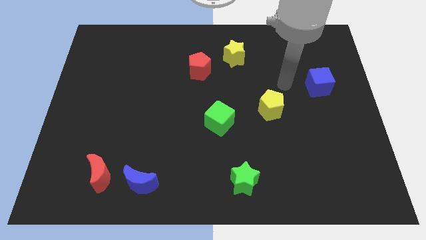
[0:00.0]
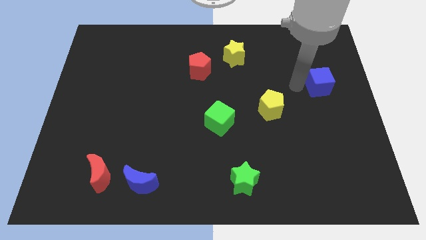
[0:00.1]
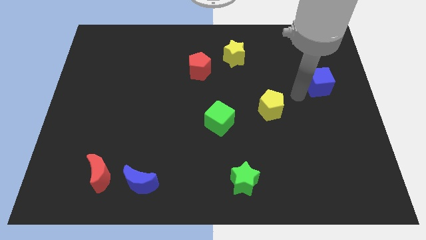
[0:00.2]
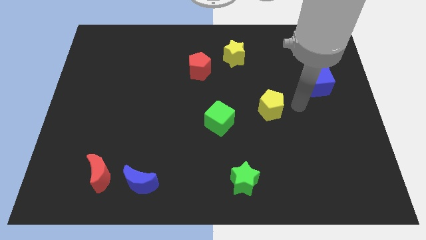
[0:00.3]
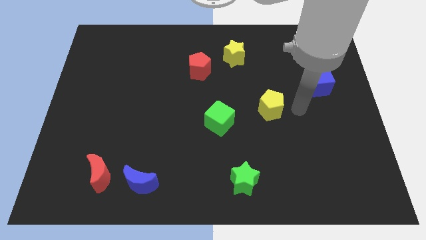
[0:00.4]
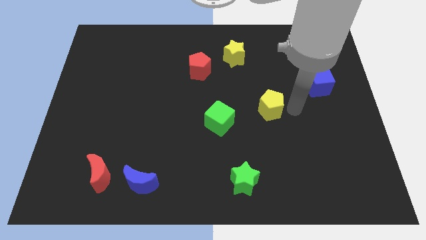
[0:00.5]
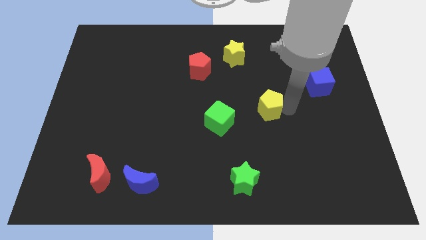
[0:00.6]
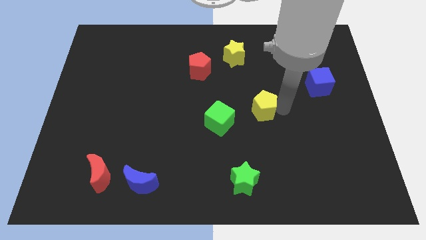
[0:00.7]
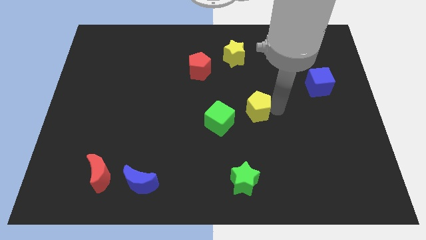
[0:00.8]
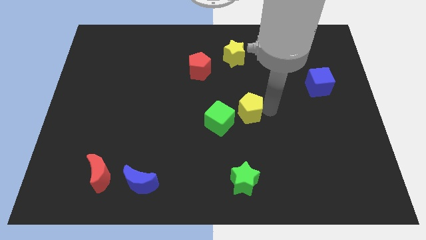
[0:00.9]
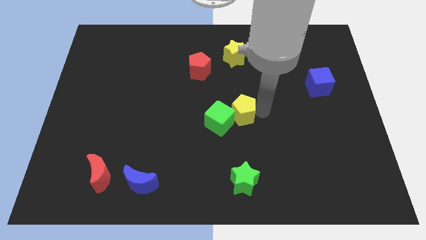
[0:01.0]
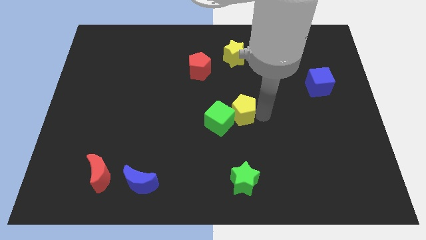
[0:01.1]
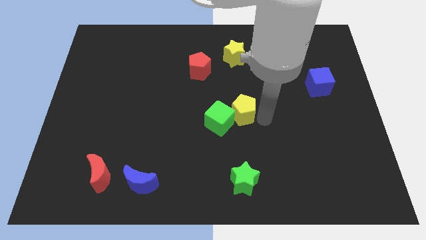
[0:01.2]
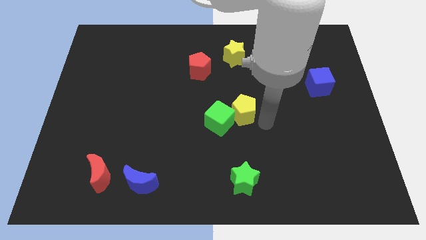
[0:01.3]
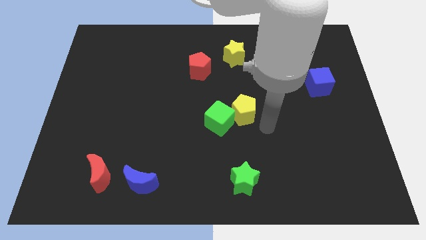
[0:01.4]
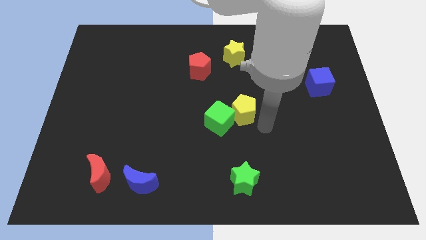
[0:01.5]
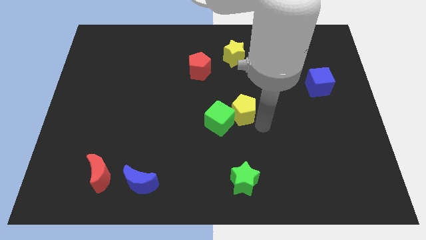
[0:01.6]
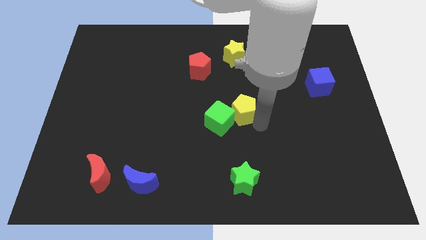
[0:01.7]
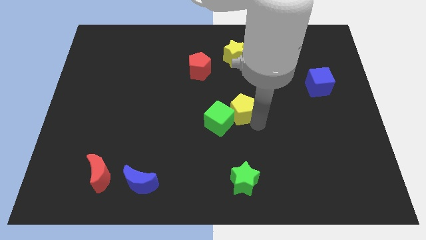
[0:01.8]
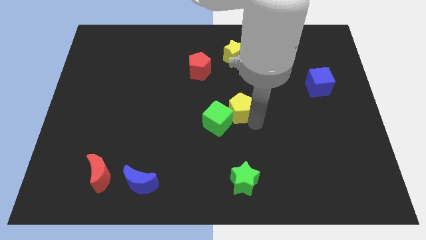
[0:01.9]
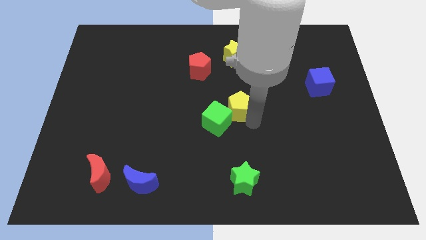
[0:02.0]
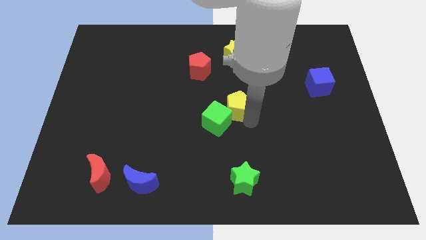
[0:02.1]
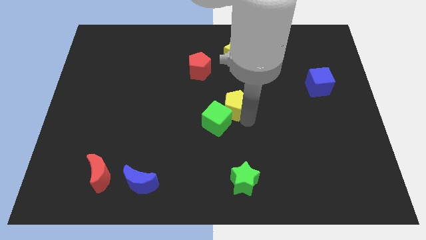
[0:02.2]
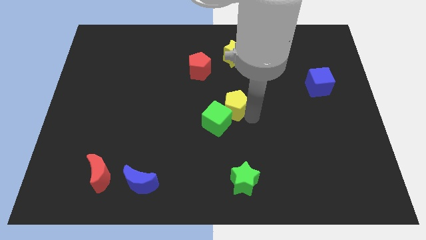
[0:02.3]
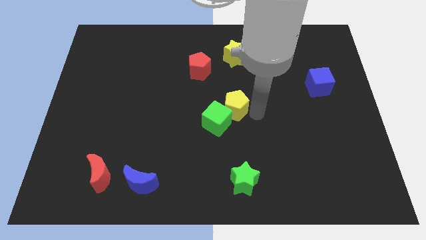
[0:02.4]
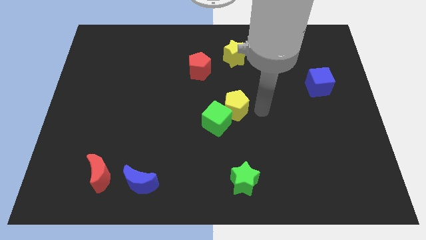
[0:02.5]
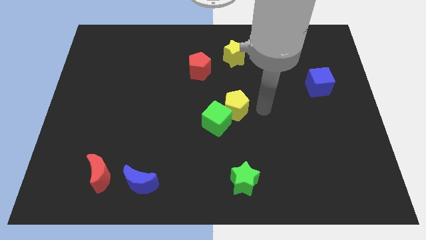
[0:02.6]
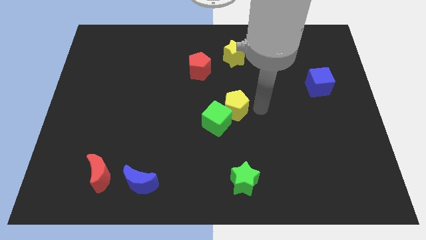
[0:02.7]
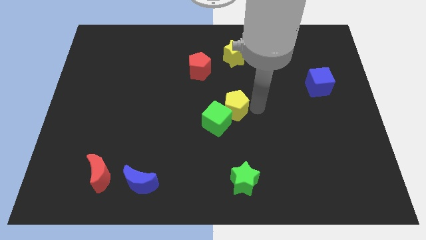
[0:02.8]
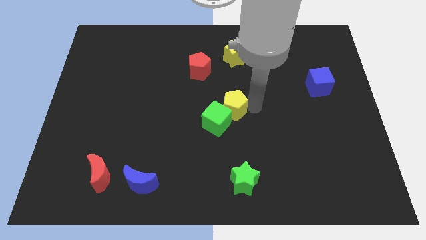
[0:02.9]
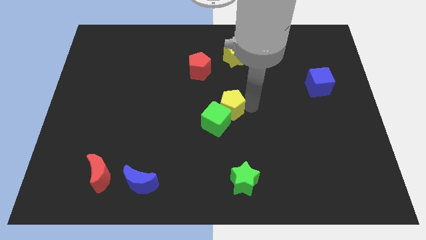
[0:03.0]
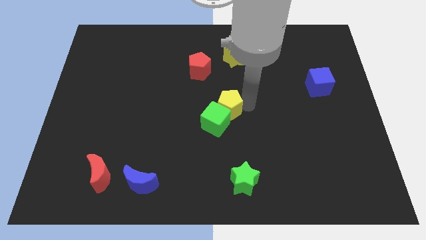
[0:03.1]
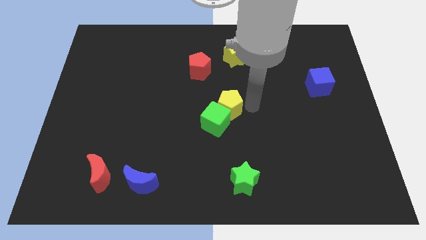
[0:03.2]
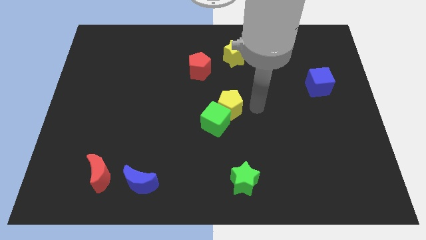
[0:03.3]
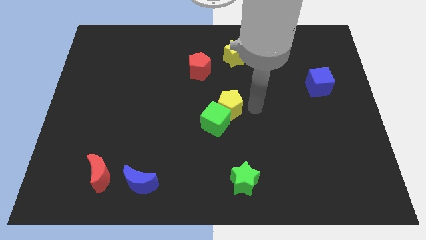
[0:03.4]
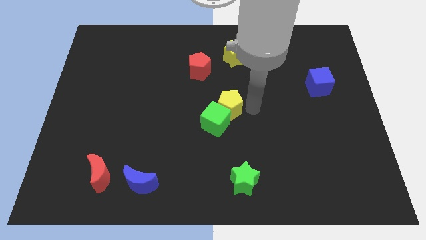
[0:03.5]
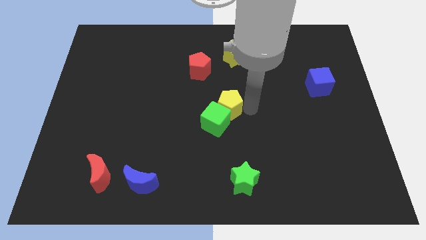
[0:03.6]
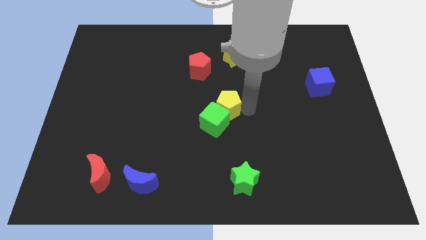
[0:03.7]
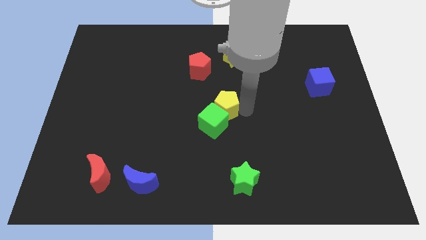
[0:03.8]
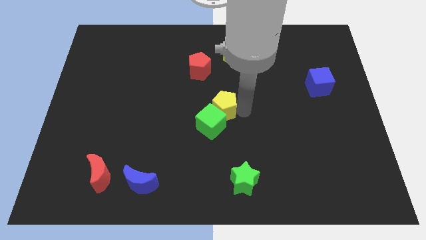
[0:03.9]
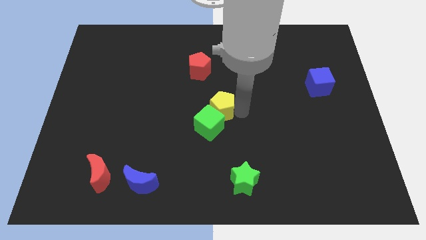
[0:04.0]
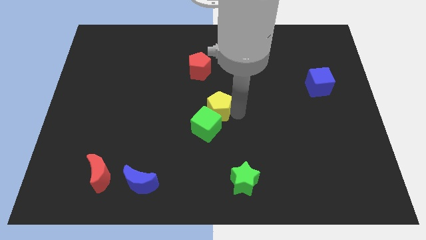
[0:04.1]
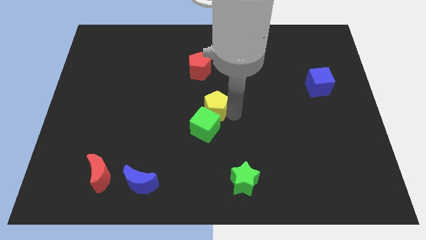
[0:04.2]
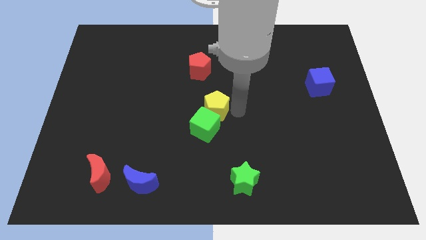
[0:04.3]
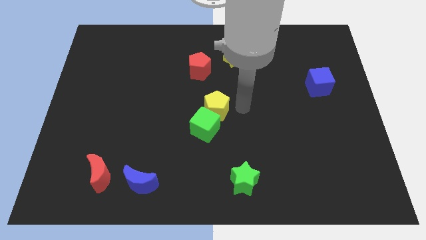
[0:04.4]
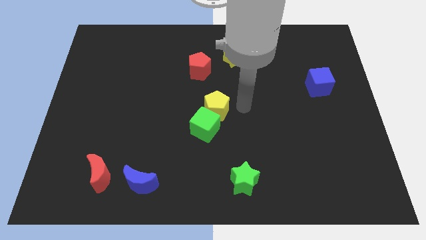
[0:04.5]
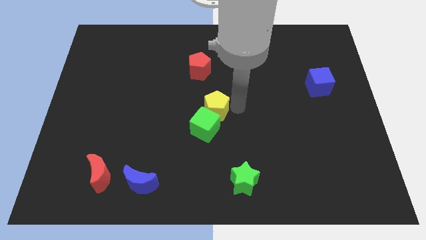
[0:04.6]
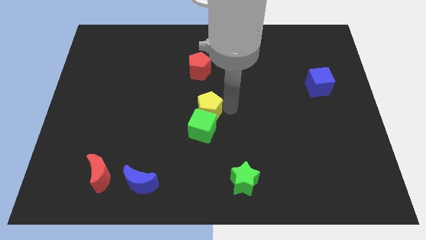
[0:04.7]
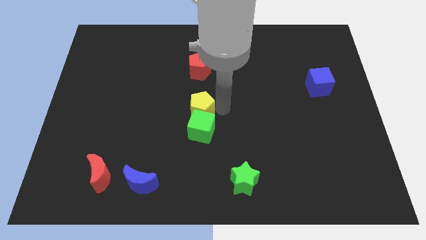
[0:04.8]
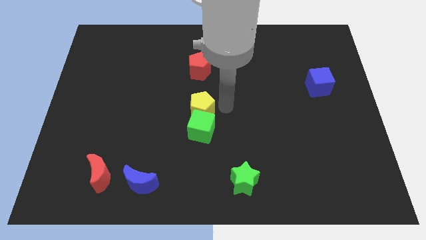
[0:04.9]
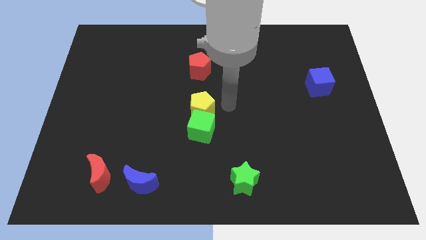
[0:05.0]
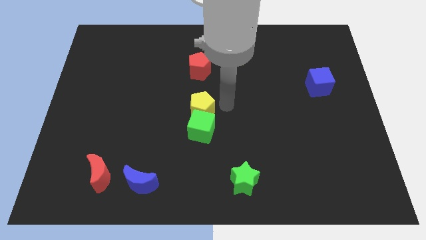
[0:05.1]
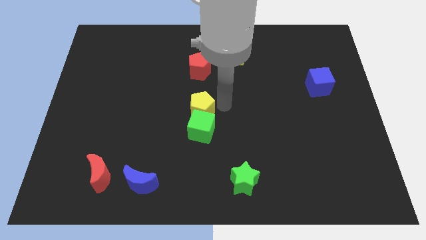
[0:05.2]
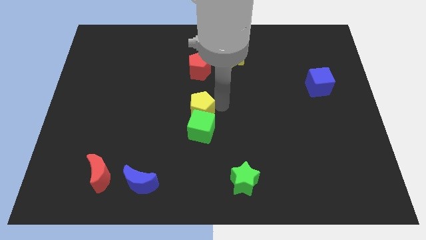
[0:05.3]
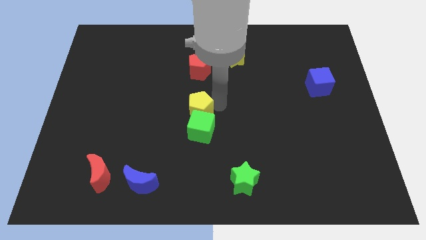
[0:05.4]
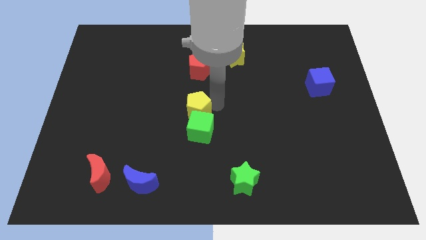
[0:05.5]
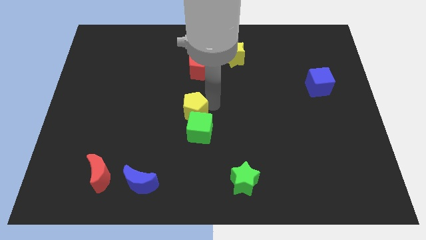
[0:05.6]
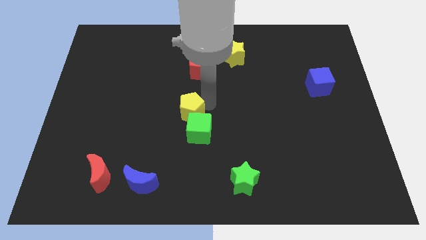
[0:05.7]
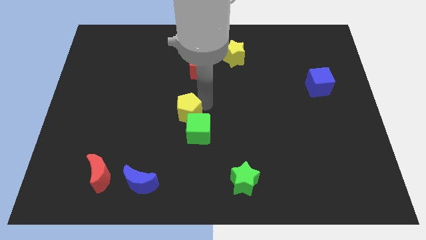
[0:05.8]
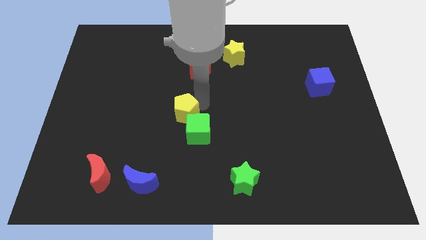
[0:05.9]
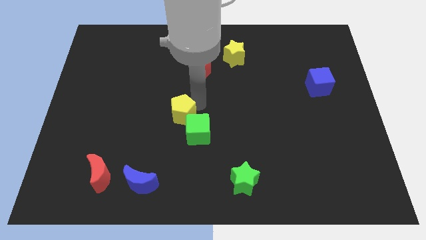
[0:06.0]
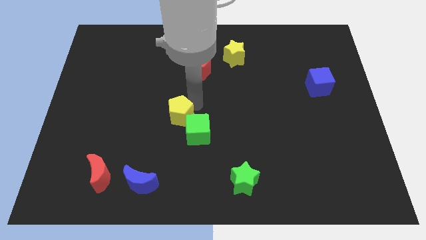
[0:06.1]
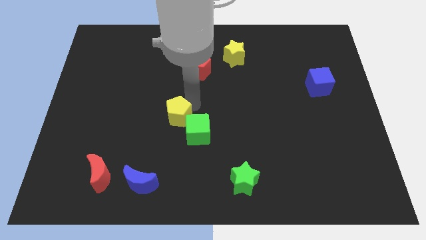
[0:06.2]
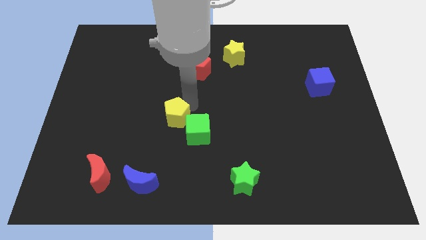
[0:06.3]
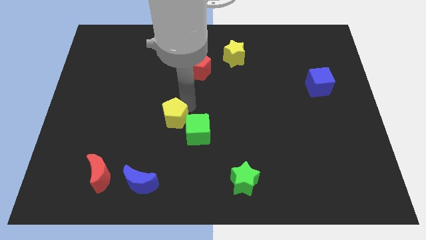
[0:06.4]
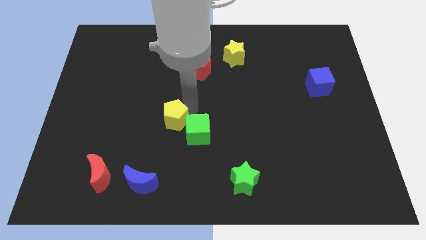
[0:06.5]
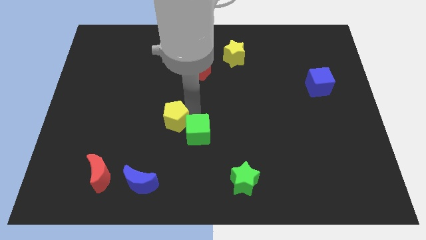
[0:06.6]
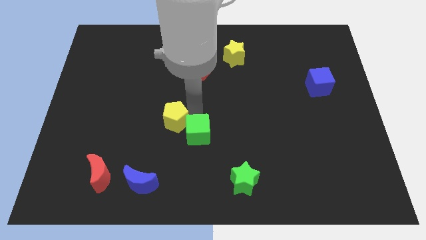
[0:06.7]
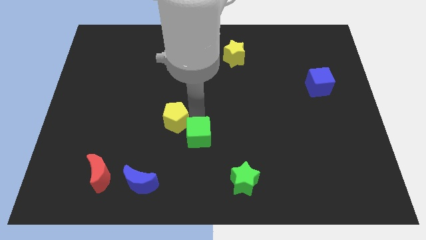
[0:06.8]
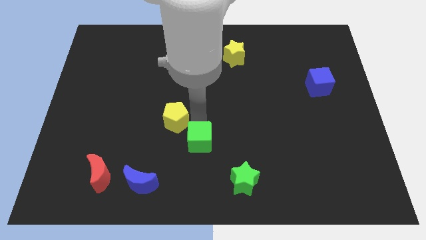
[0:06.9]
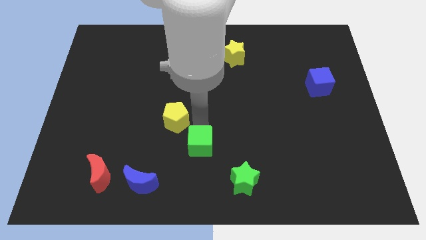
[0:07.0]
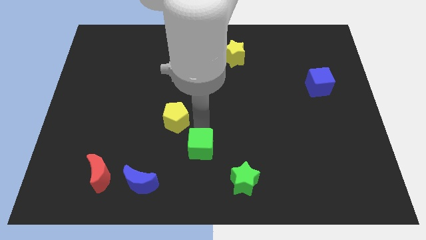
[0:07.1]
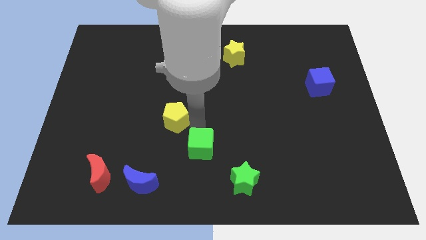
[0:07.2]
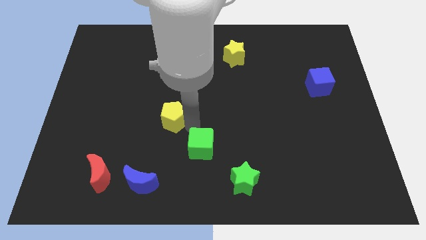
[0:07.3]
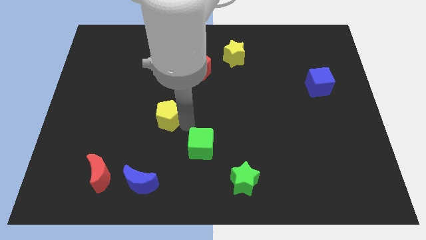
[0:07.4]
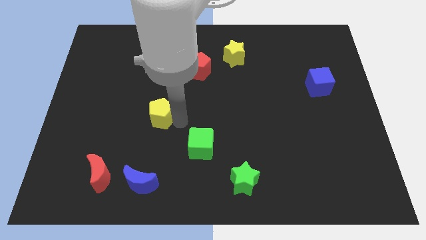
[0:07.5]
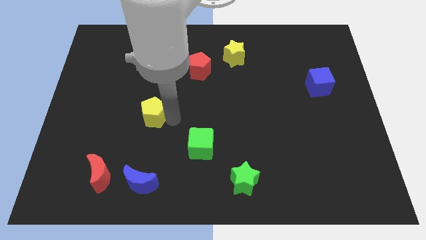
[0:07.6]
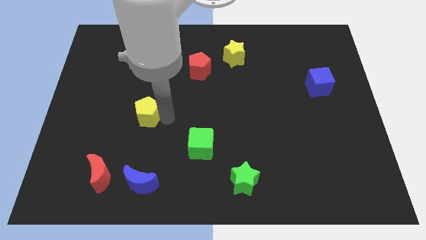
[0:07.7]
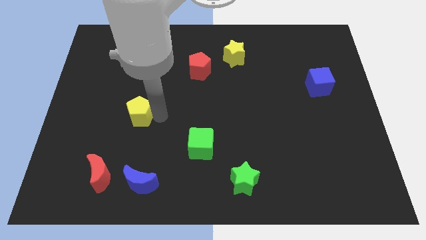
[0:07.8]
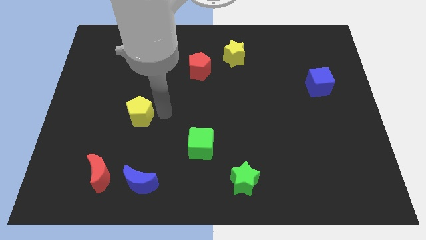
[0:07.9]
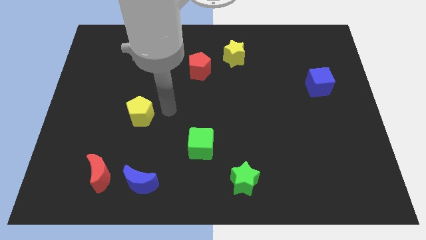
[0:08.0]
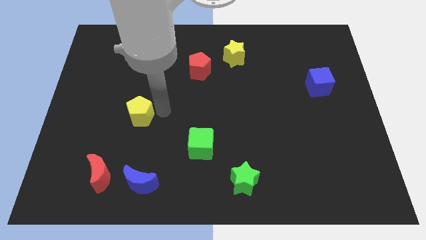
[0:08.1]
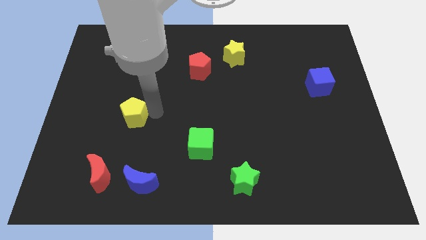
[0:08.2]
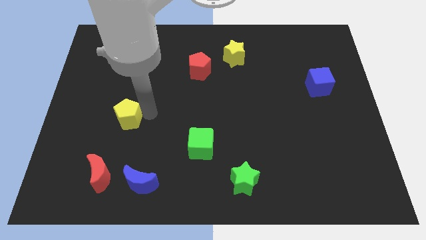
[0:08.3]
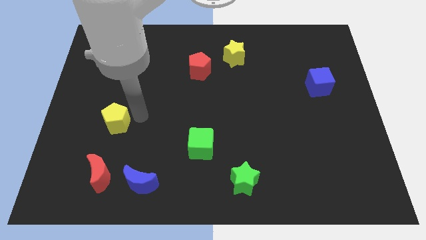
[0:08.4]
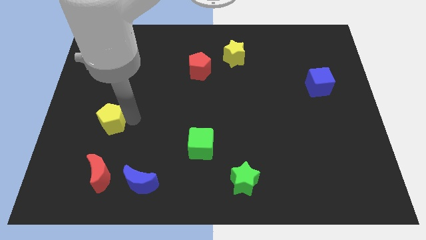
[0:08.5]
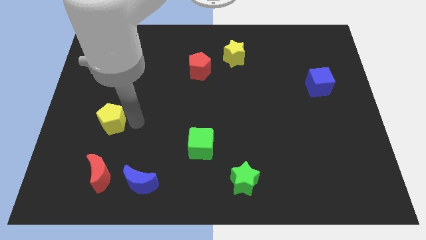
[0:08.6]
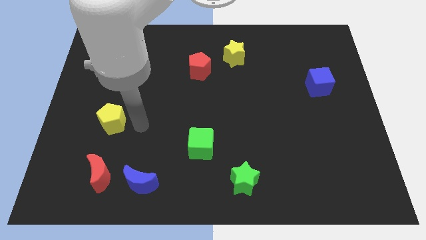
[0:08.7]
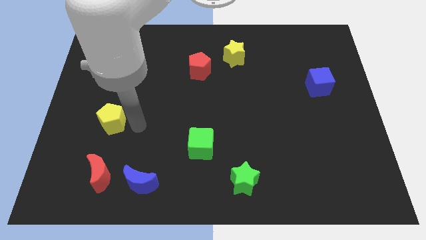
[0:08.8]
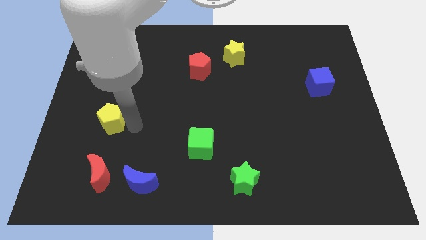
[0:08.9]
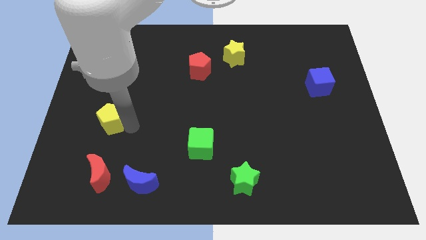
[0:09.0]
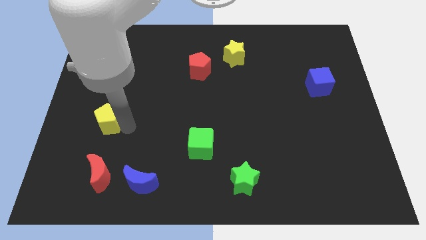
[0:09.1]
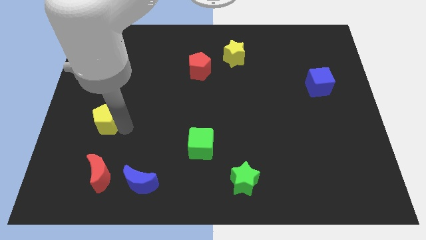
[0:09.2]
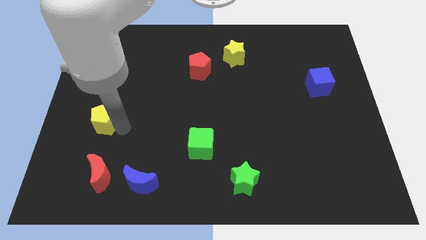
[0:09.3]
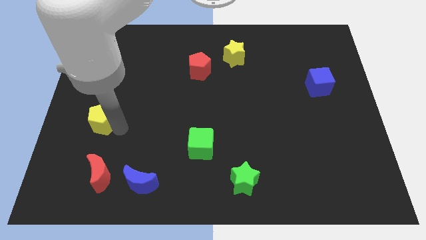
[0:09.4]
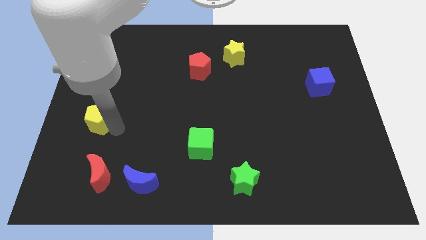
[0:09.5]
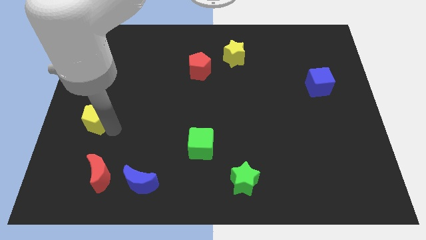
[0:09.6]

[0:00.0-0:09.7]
push the yellow pentagon to the center left
